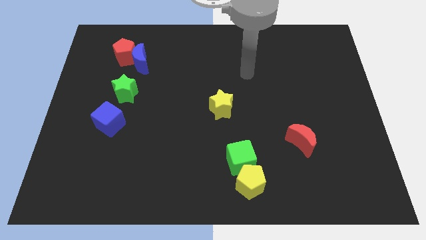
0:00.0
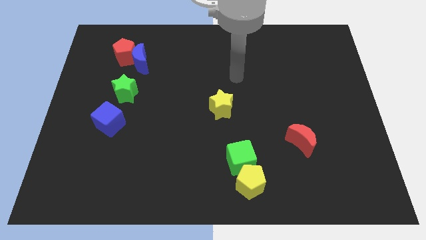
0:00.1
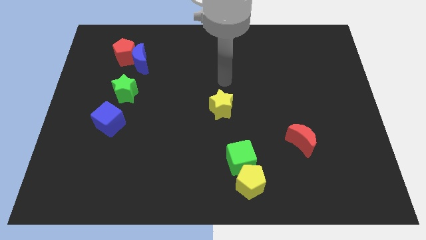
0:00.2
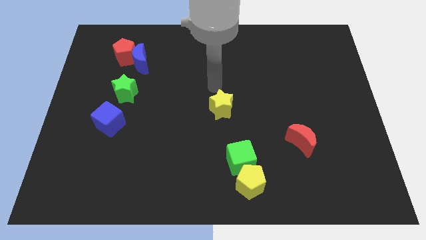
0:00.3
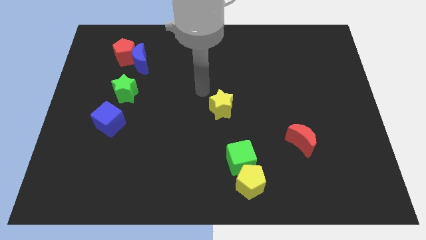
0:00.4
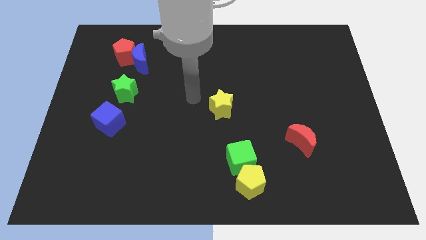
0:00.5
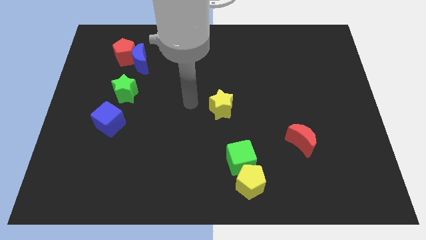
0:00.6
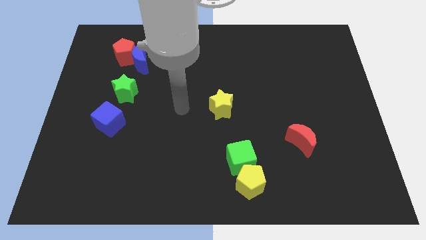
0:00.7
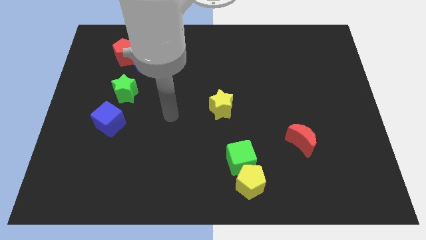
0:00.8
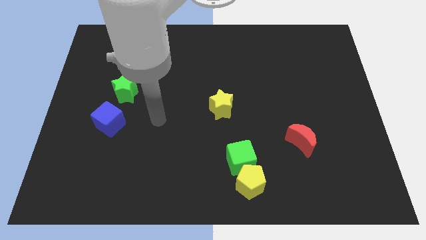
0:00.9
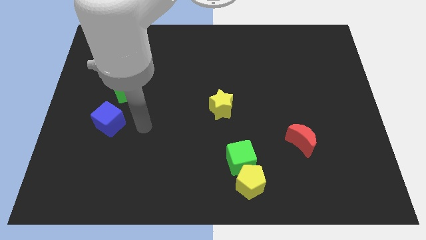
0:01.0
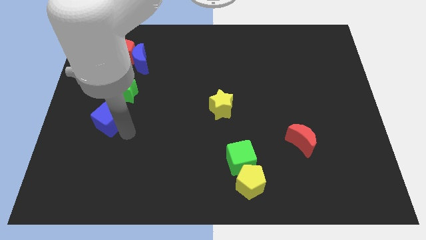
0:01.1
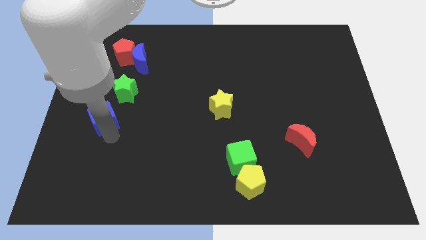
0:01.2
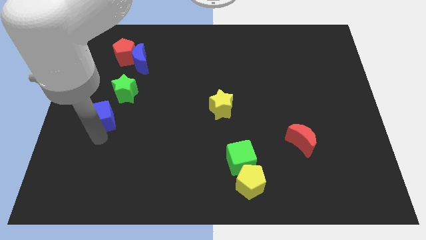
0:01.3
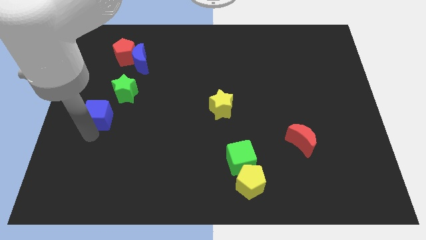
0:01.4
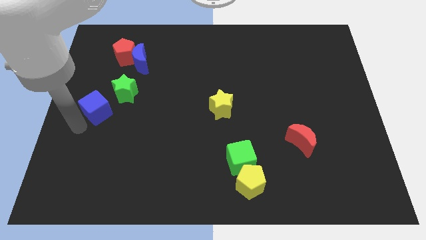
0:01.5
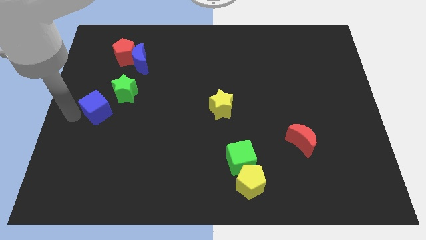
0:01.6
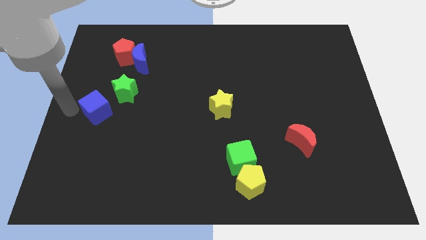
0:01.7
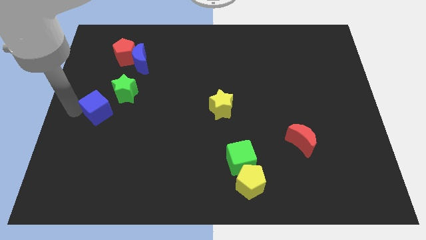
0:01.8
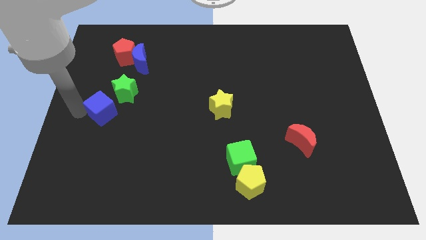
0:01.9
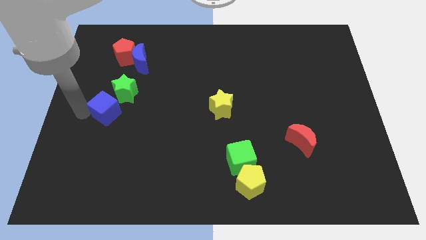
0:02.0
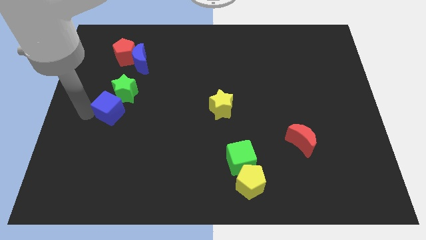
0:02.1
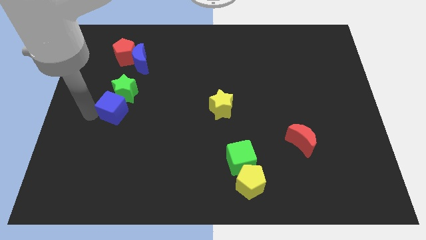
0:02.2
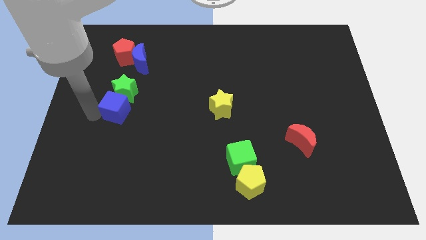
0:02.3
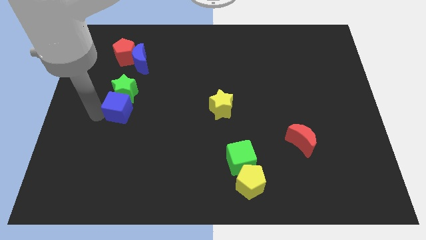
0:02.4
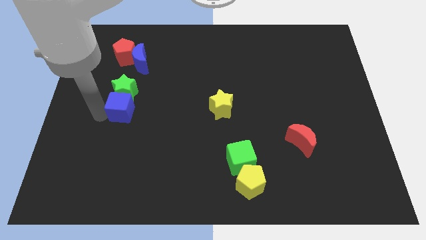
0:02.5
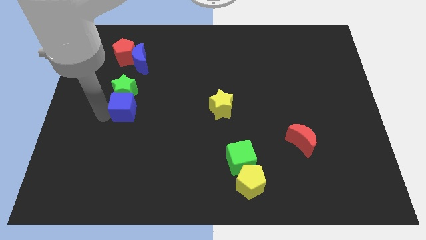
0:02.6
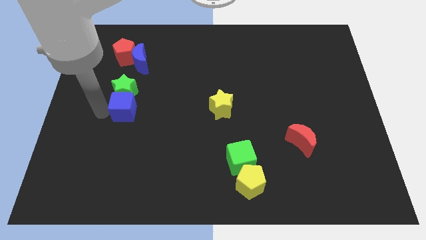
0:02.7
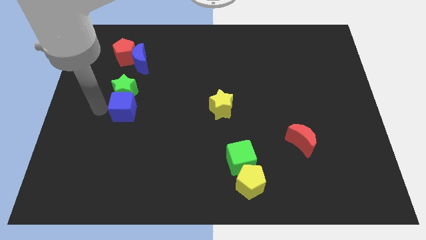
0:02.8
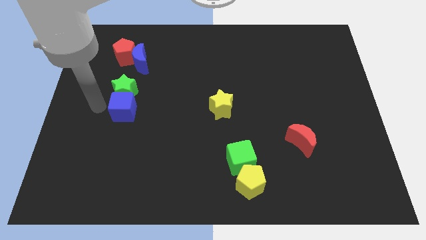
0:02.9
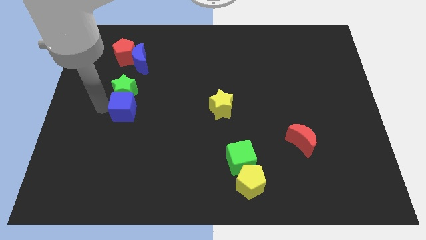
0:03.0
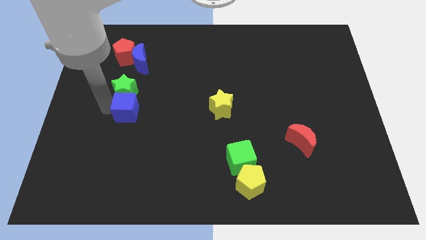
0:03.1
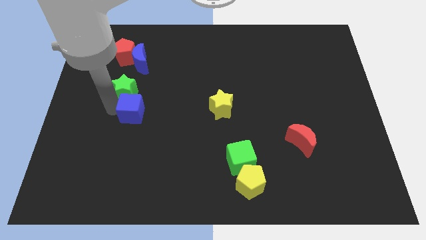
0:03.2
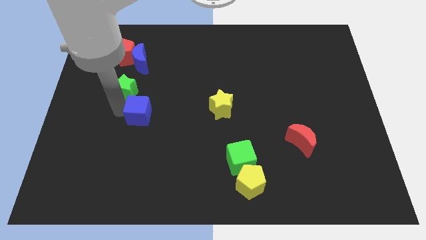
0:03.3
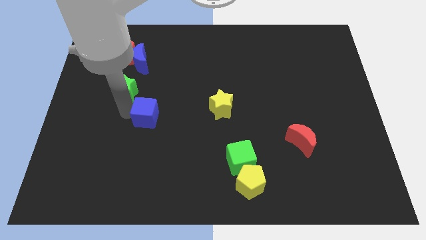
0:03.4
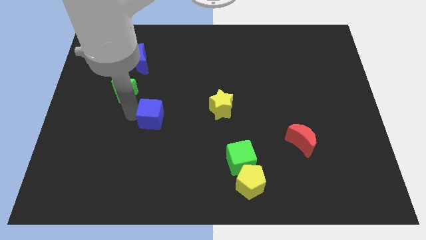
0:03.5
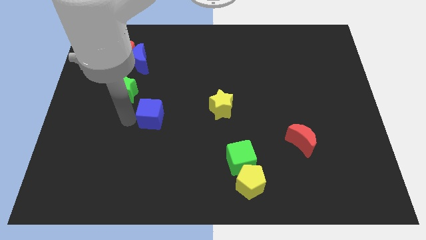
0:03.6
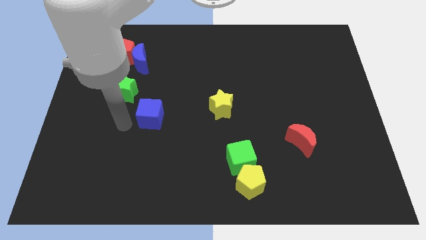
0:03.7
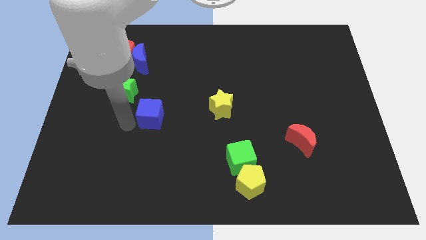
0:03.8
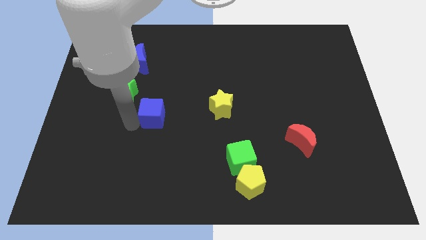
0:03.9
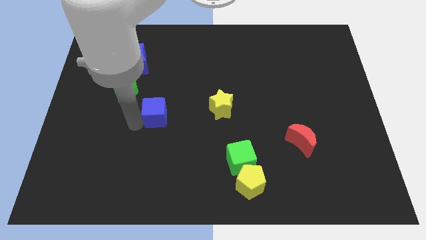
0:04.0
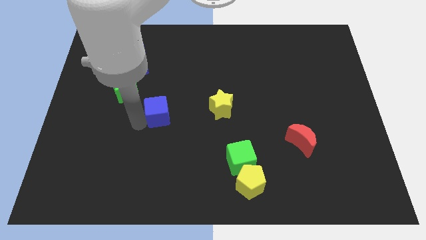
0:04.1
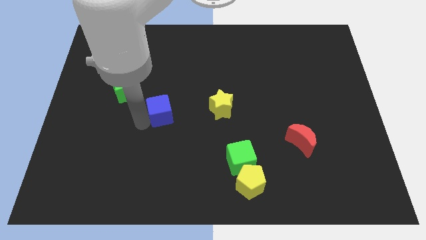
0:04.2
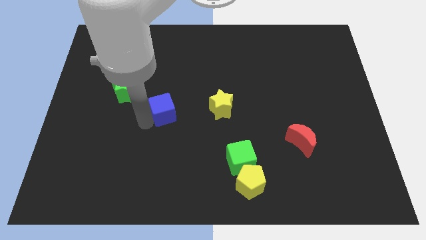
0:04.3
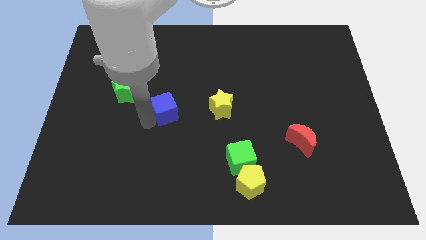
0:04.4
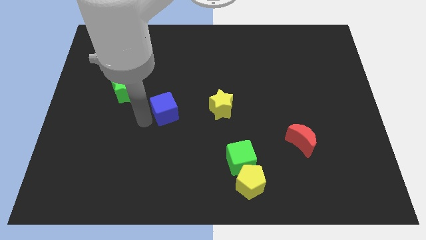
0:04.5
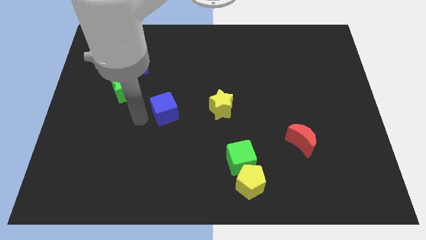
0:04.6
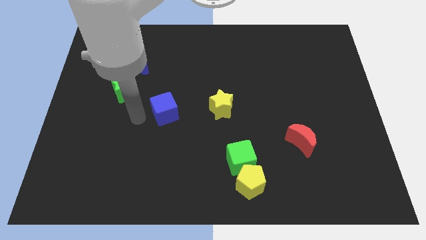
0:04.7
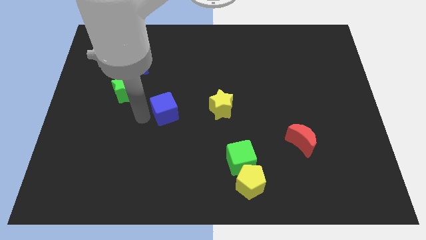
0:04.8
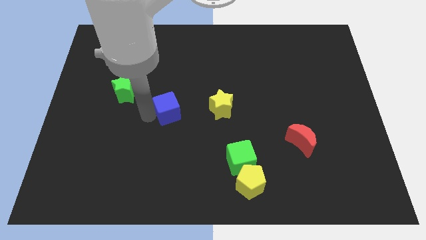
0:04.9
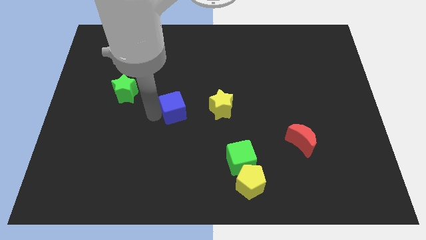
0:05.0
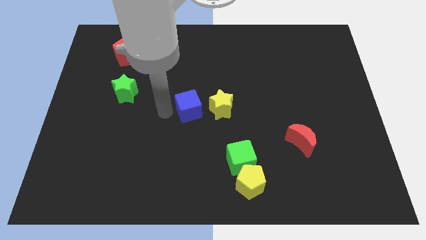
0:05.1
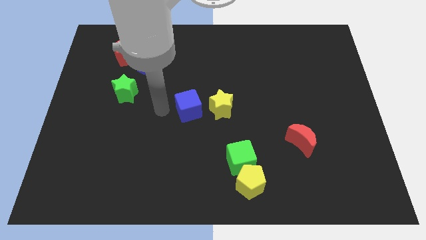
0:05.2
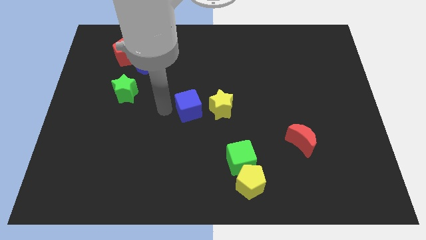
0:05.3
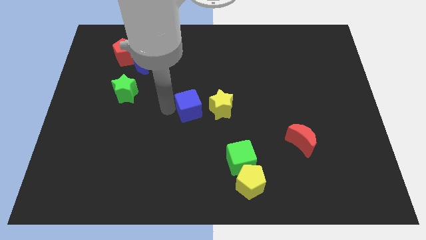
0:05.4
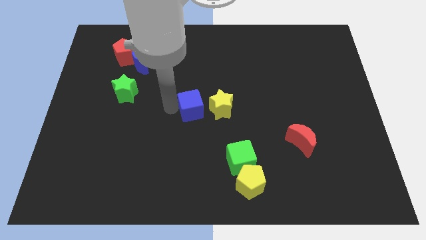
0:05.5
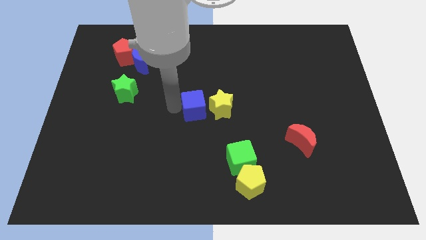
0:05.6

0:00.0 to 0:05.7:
push the blue cube to the yellow star

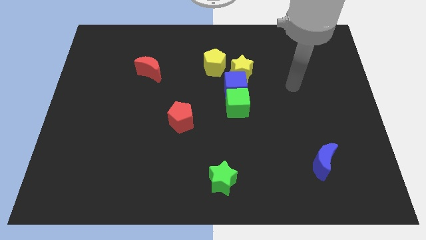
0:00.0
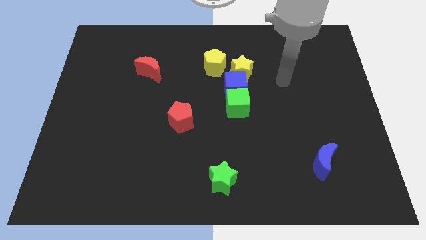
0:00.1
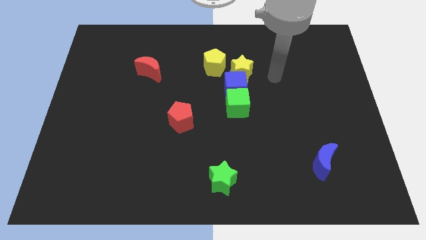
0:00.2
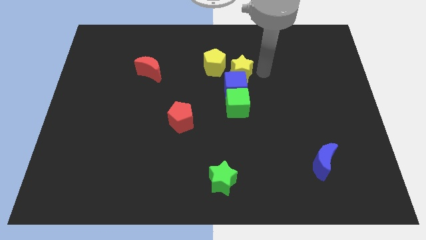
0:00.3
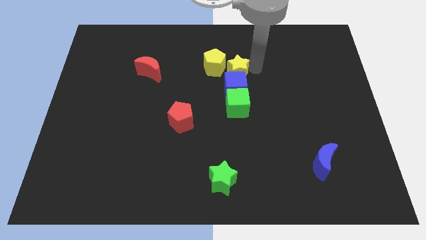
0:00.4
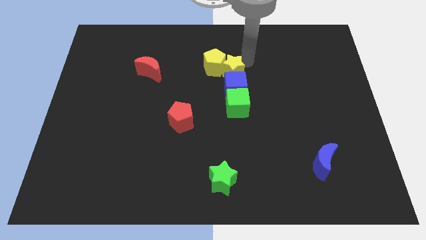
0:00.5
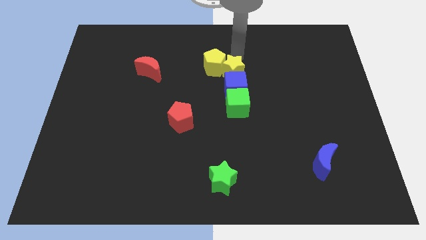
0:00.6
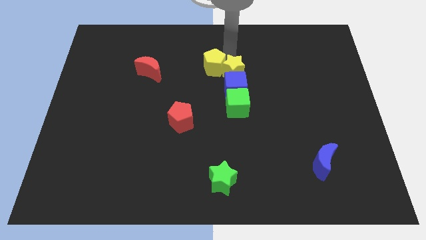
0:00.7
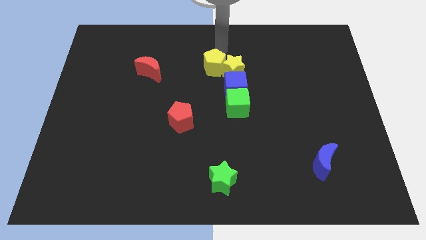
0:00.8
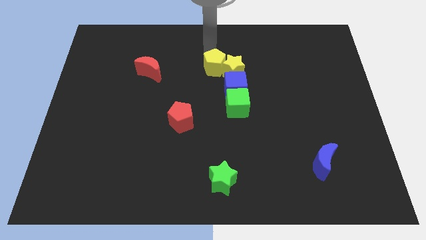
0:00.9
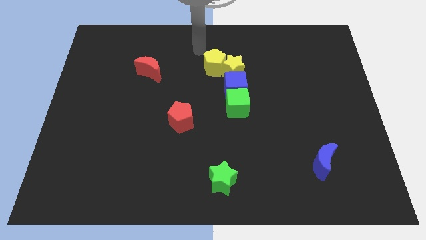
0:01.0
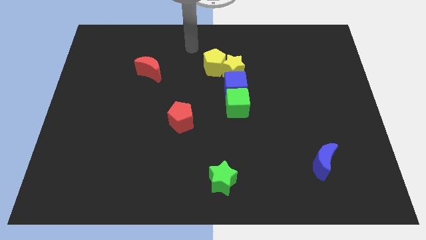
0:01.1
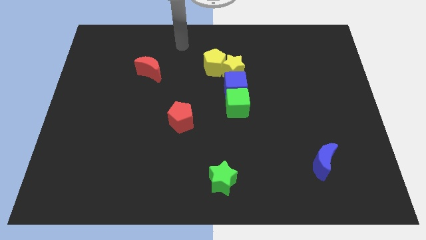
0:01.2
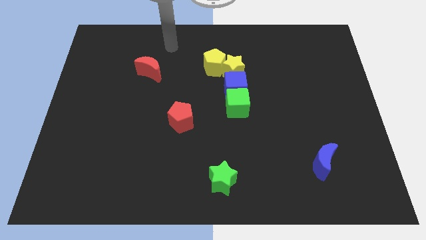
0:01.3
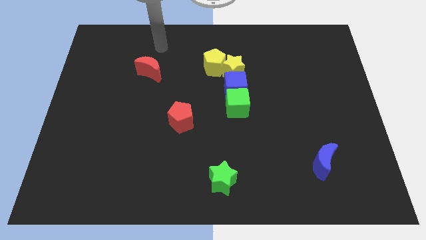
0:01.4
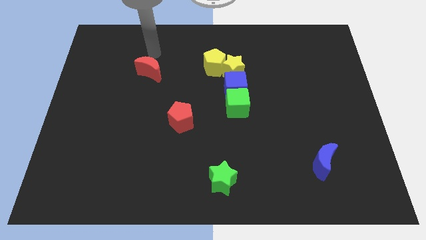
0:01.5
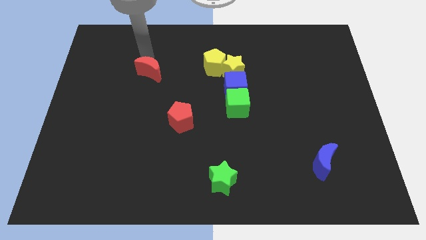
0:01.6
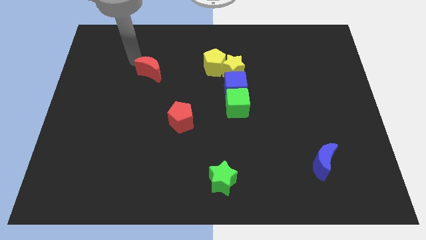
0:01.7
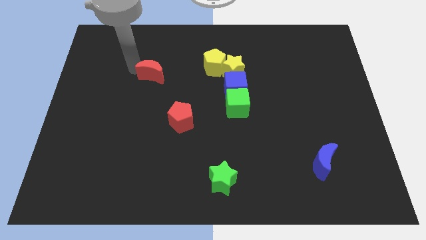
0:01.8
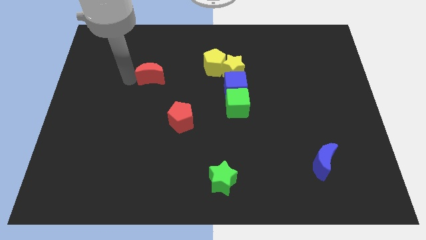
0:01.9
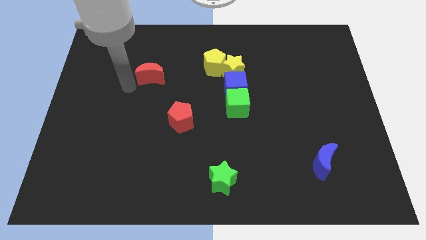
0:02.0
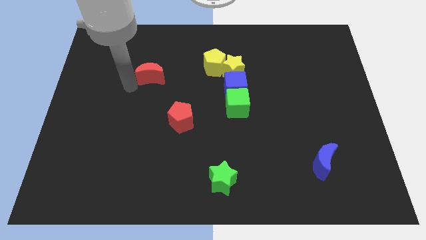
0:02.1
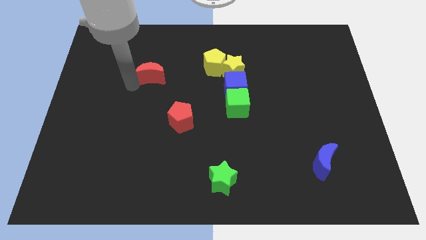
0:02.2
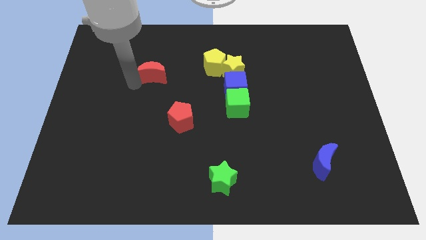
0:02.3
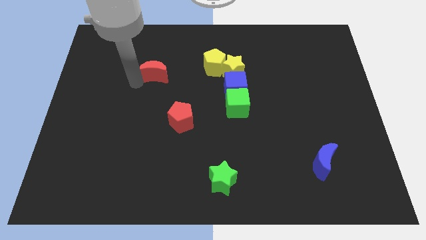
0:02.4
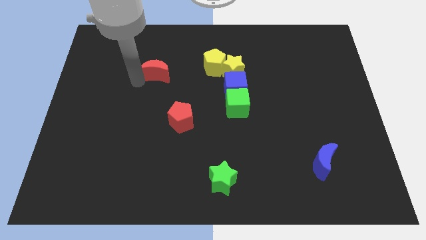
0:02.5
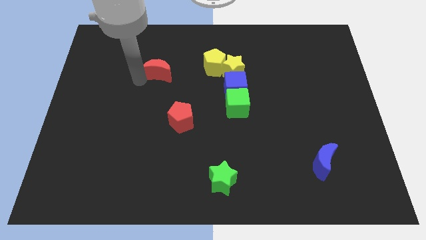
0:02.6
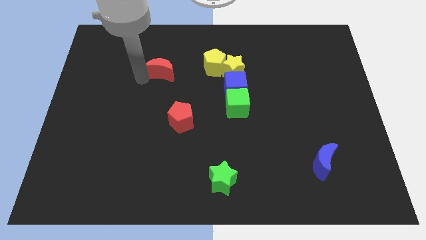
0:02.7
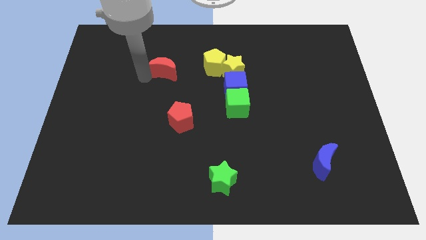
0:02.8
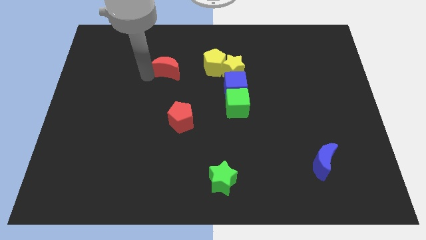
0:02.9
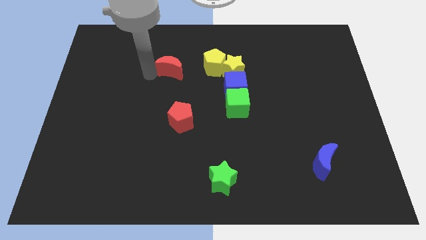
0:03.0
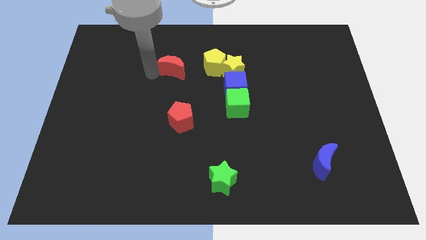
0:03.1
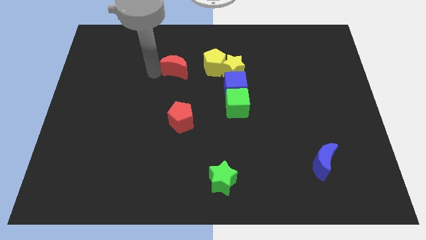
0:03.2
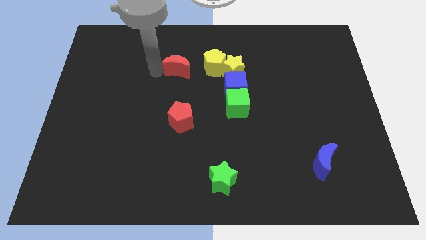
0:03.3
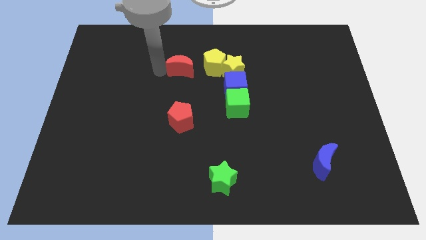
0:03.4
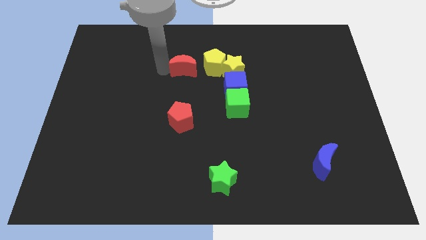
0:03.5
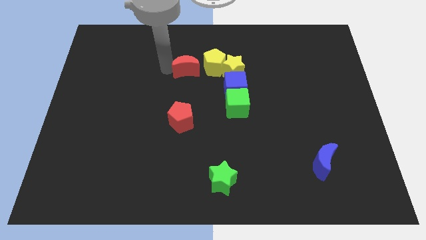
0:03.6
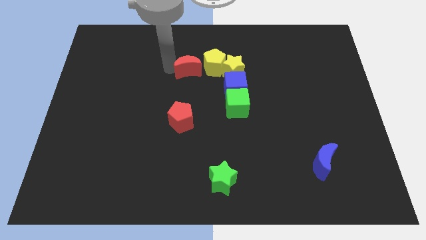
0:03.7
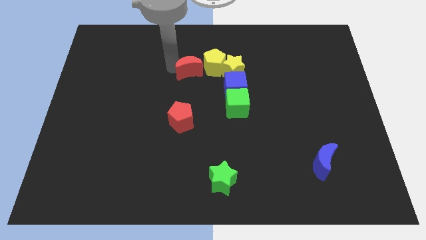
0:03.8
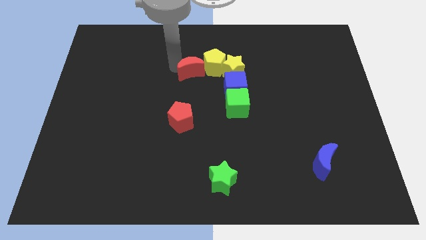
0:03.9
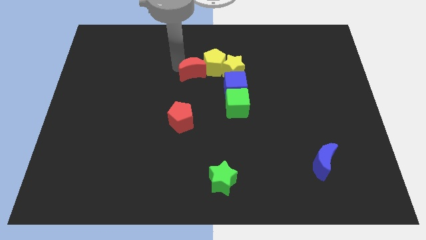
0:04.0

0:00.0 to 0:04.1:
move the red moon towards the yellow pentagon
